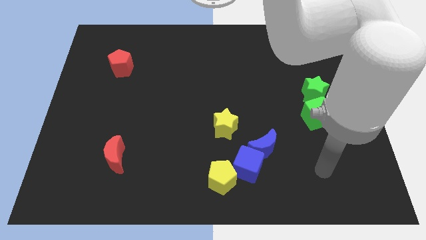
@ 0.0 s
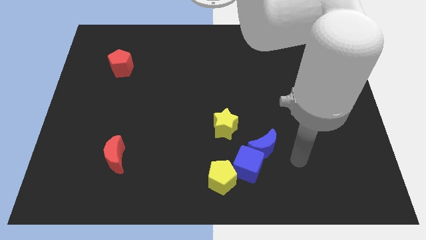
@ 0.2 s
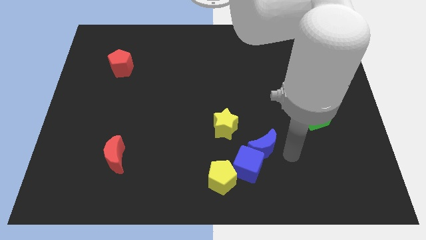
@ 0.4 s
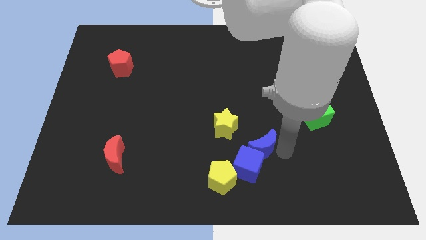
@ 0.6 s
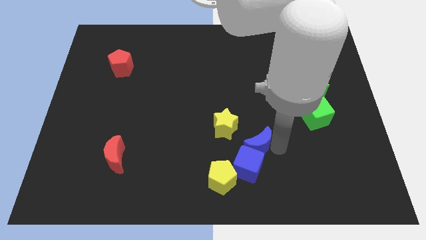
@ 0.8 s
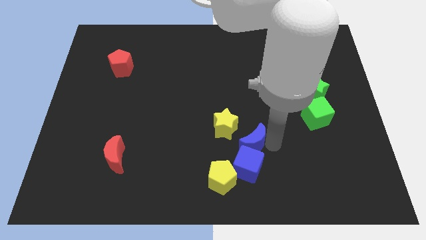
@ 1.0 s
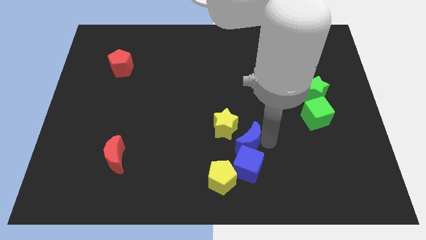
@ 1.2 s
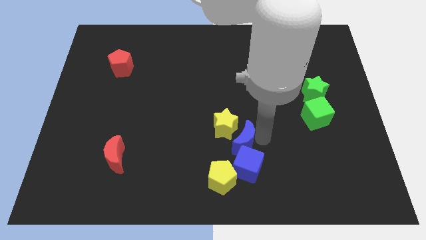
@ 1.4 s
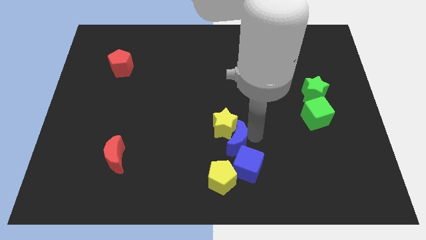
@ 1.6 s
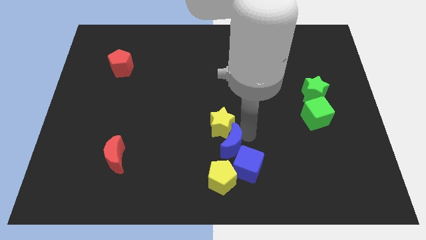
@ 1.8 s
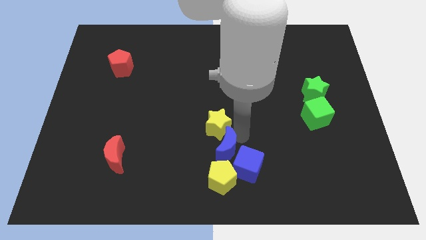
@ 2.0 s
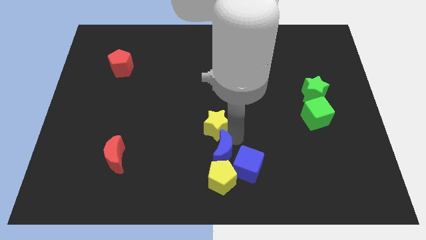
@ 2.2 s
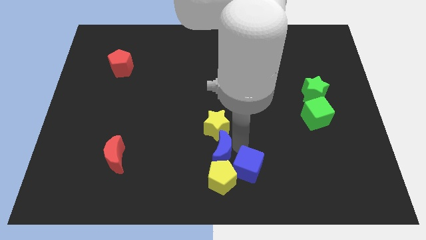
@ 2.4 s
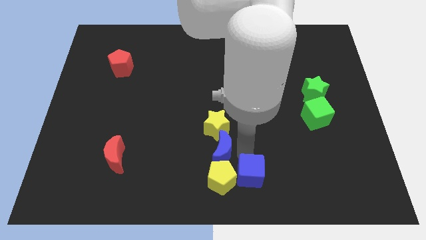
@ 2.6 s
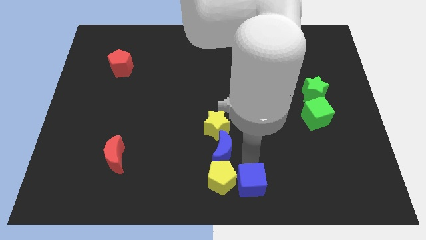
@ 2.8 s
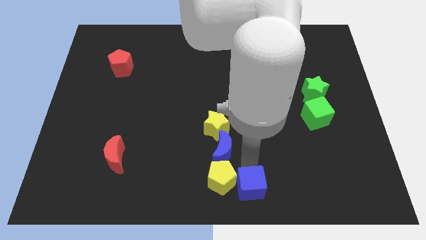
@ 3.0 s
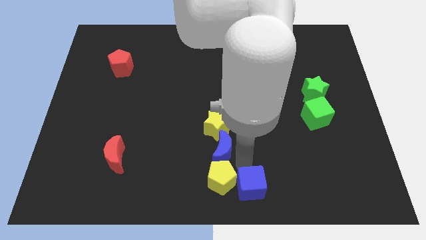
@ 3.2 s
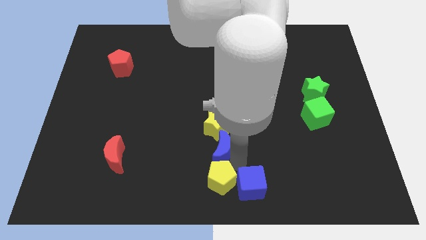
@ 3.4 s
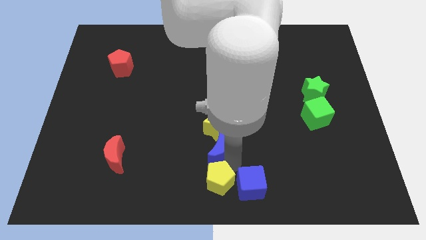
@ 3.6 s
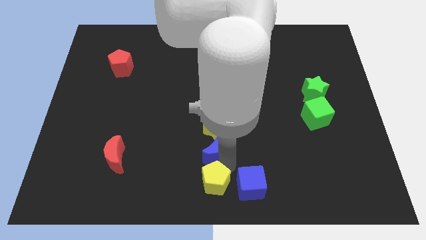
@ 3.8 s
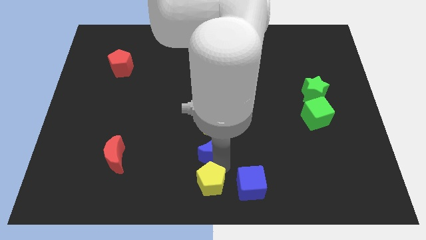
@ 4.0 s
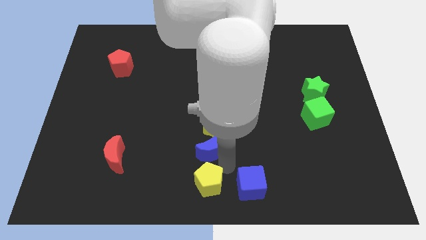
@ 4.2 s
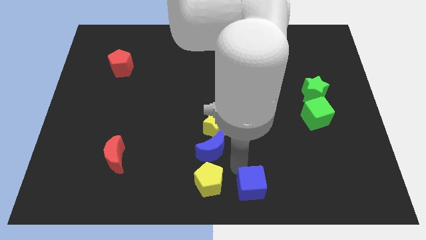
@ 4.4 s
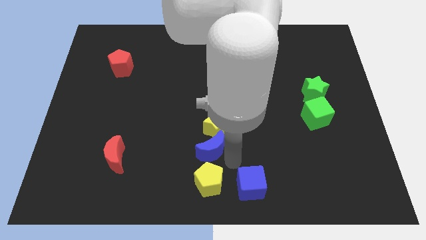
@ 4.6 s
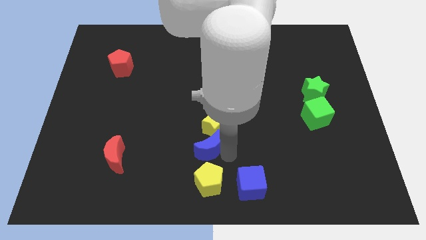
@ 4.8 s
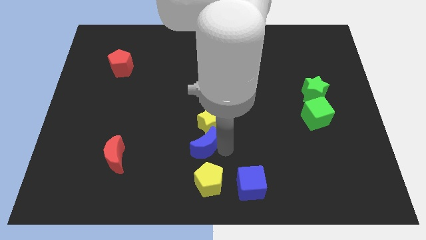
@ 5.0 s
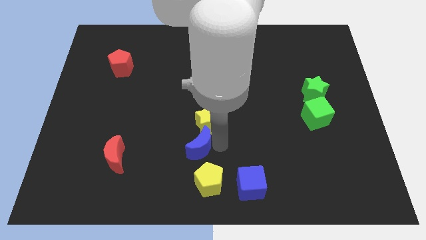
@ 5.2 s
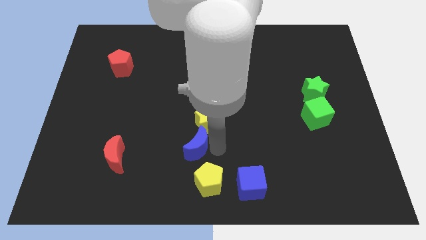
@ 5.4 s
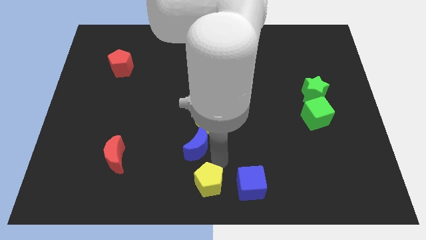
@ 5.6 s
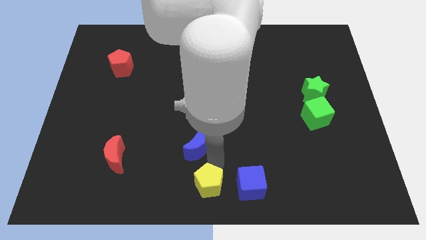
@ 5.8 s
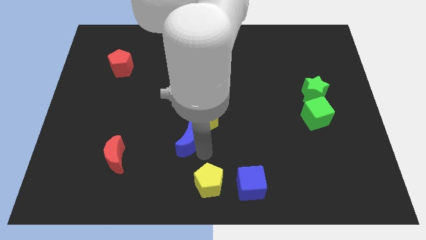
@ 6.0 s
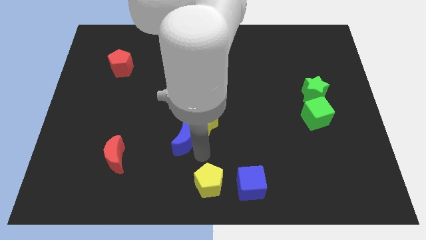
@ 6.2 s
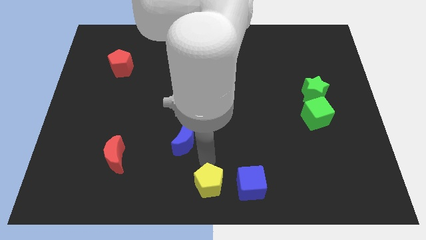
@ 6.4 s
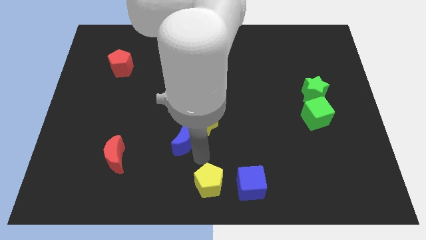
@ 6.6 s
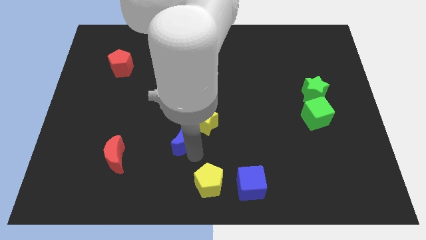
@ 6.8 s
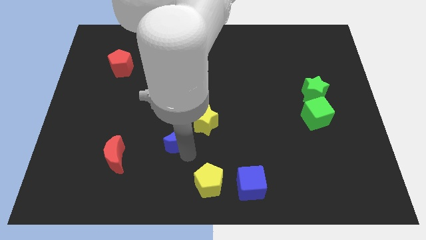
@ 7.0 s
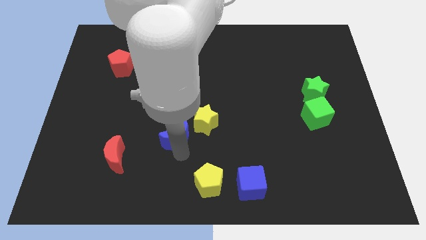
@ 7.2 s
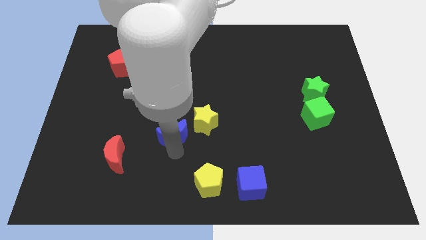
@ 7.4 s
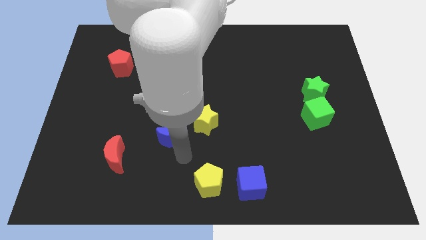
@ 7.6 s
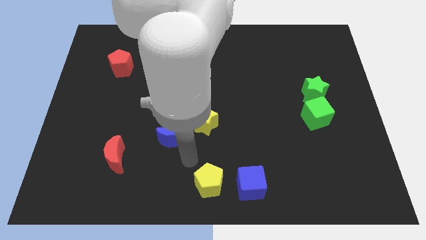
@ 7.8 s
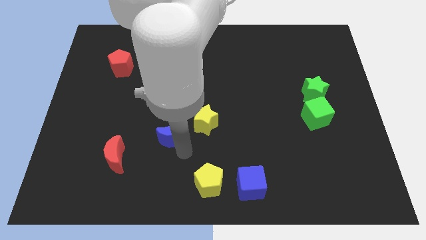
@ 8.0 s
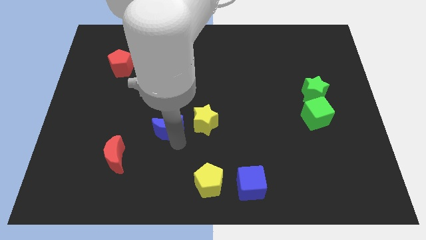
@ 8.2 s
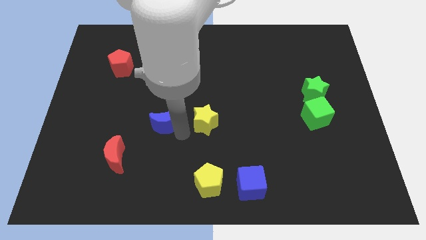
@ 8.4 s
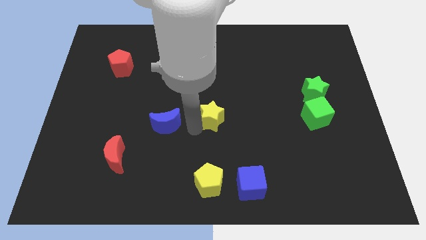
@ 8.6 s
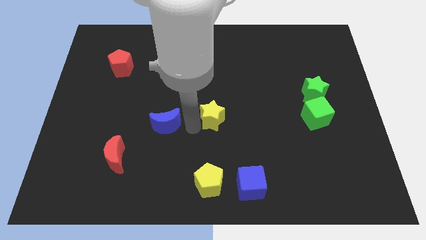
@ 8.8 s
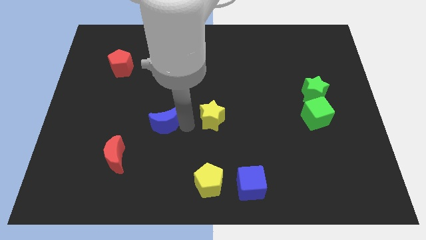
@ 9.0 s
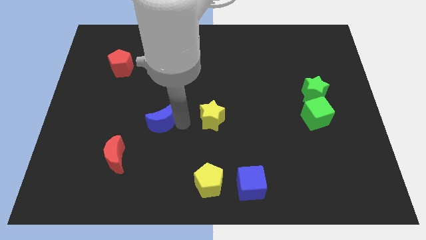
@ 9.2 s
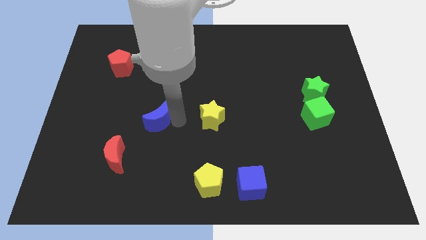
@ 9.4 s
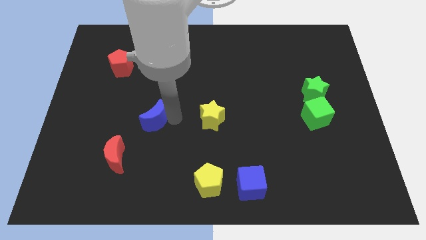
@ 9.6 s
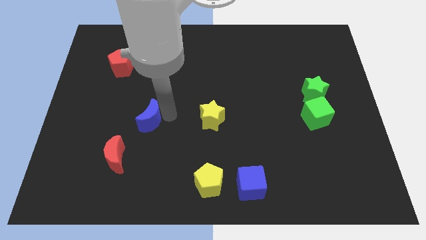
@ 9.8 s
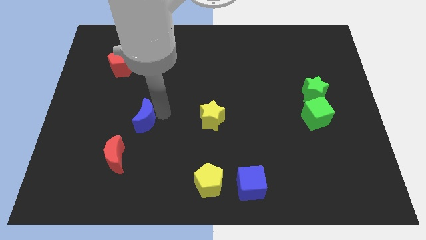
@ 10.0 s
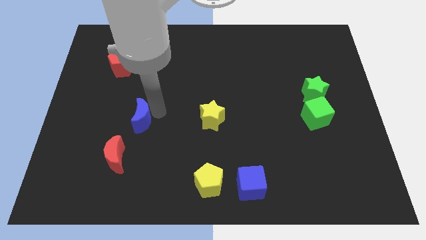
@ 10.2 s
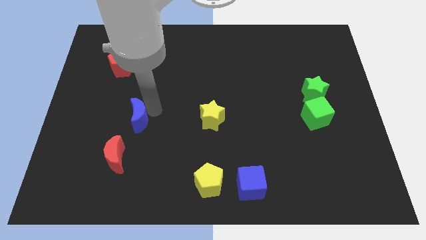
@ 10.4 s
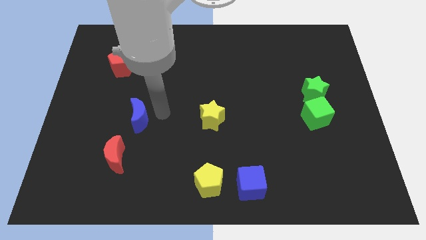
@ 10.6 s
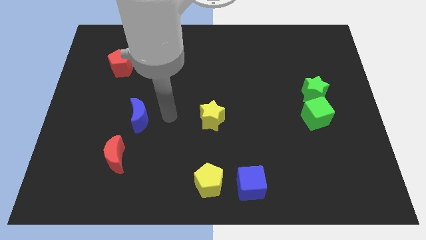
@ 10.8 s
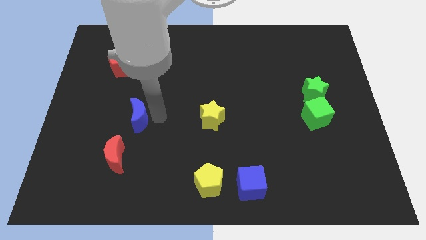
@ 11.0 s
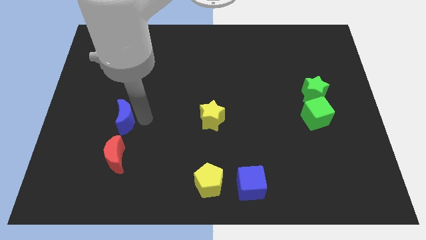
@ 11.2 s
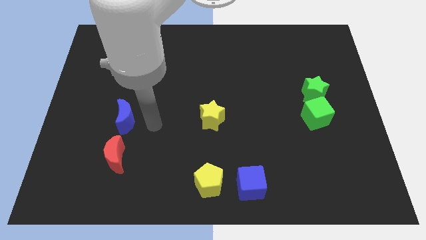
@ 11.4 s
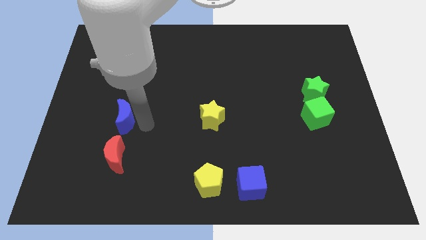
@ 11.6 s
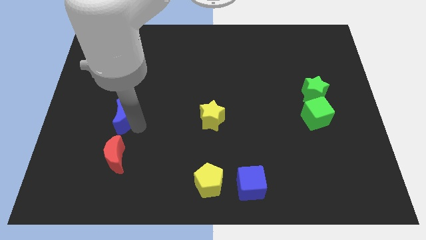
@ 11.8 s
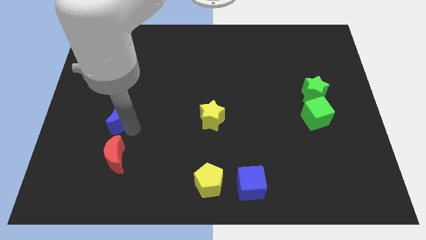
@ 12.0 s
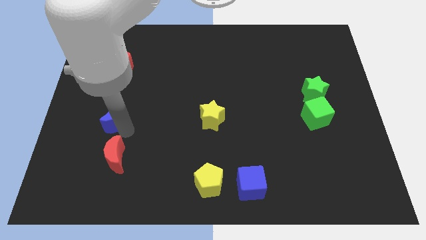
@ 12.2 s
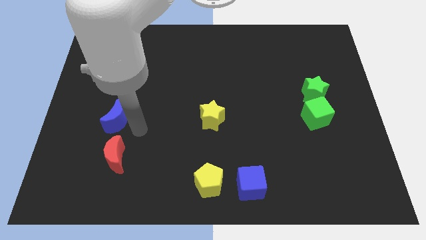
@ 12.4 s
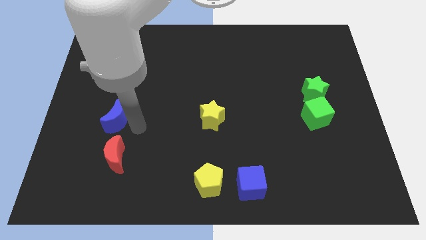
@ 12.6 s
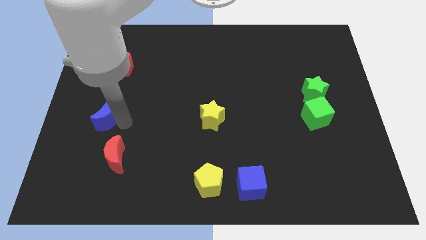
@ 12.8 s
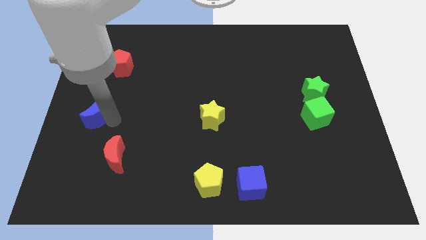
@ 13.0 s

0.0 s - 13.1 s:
put the blue moon to the left side
